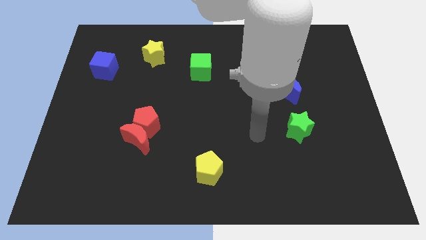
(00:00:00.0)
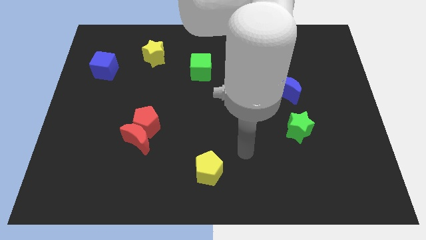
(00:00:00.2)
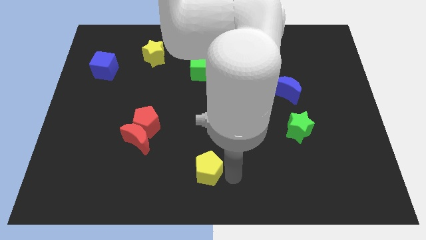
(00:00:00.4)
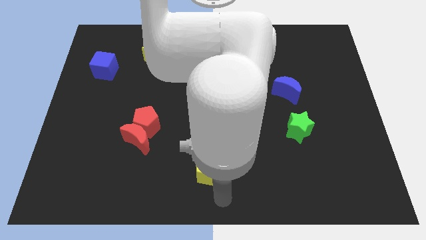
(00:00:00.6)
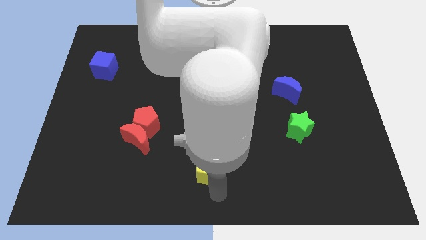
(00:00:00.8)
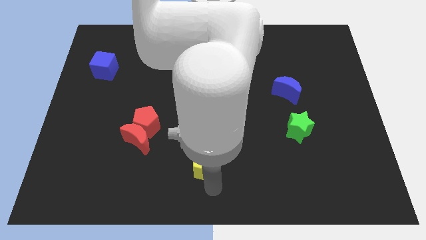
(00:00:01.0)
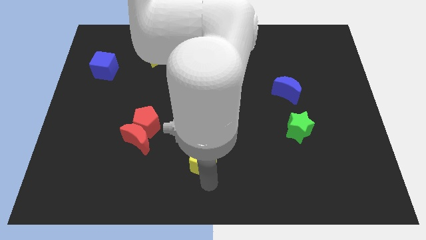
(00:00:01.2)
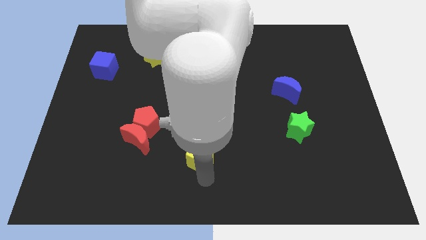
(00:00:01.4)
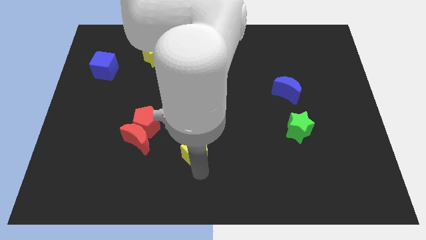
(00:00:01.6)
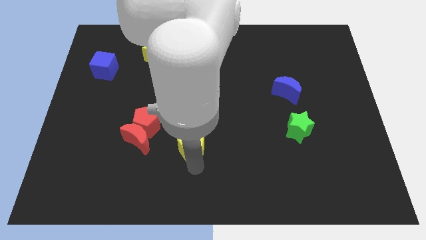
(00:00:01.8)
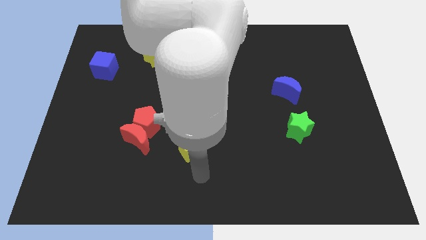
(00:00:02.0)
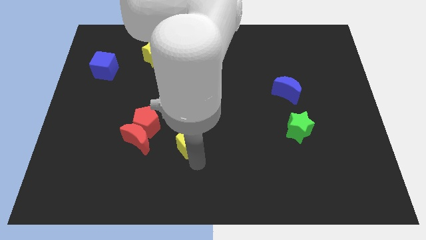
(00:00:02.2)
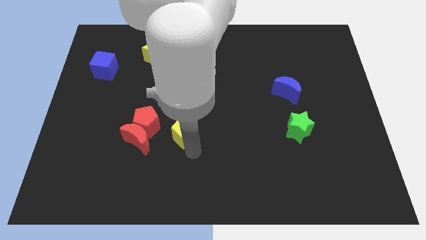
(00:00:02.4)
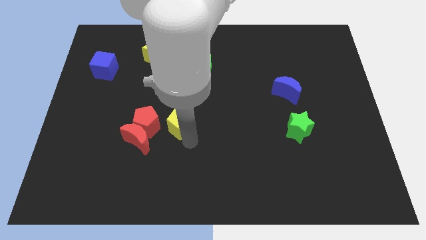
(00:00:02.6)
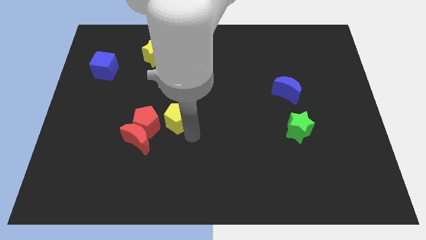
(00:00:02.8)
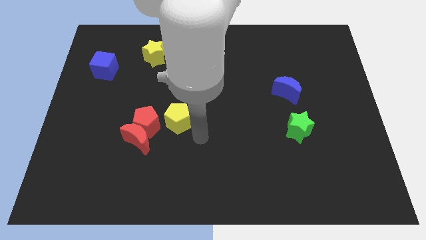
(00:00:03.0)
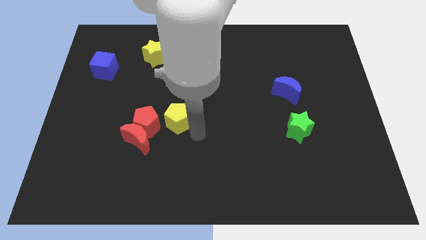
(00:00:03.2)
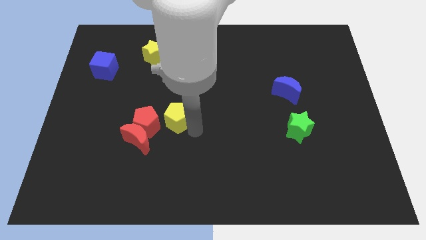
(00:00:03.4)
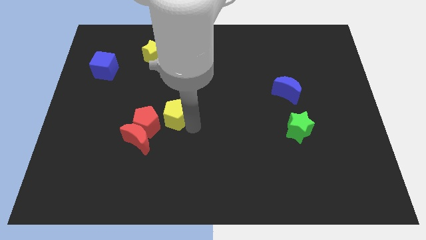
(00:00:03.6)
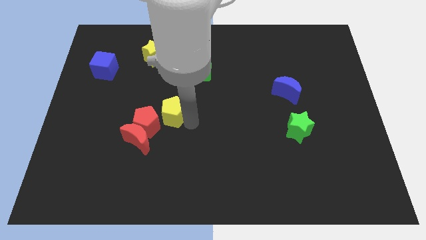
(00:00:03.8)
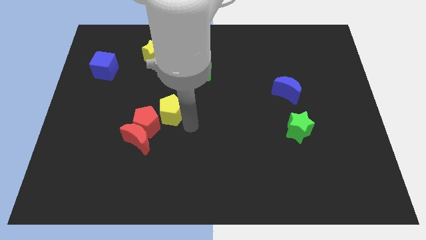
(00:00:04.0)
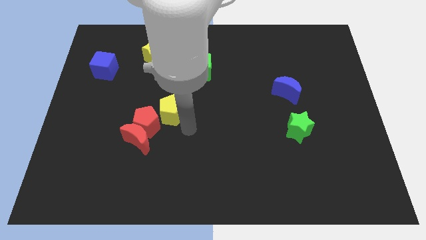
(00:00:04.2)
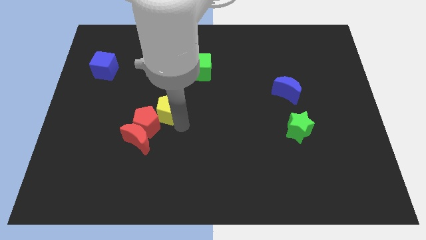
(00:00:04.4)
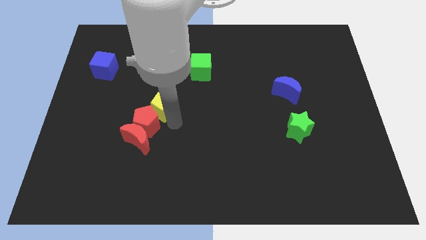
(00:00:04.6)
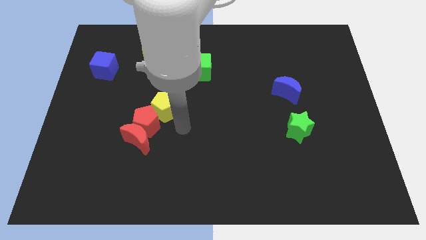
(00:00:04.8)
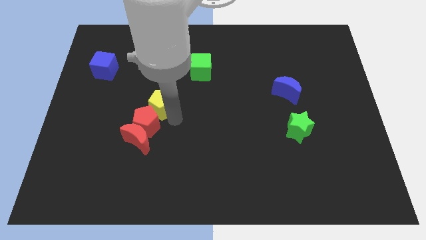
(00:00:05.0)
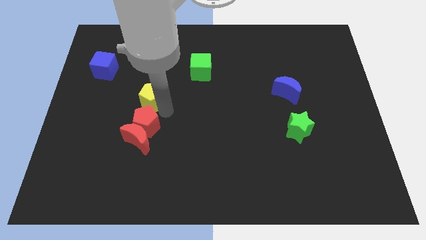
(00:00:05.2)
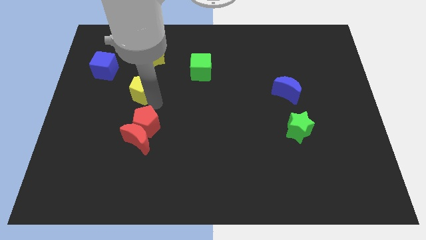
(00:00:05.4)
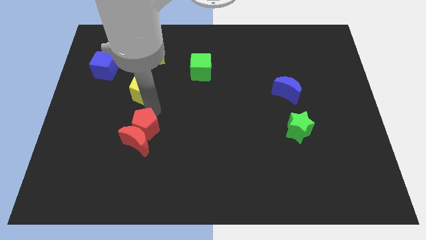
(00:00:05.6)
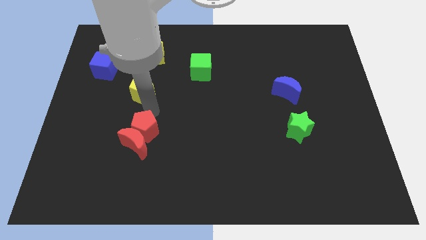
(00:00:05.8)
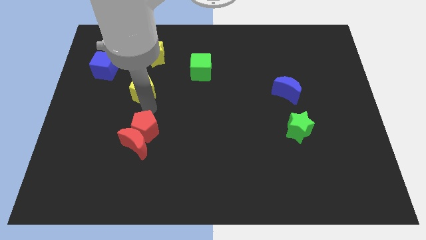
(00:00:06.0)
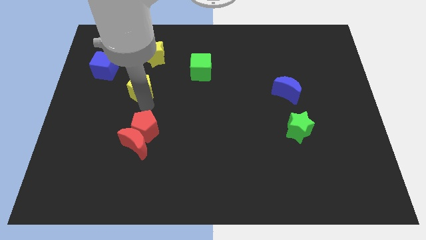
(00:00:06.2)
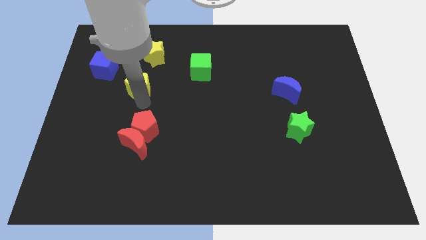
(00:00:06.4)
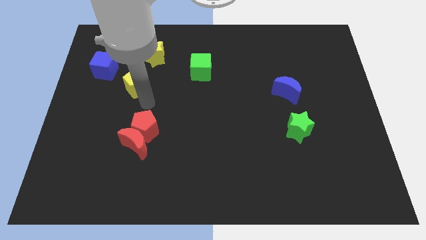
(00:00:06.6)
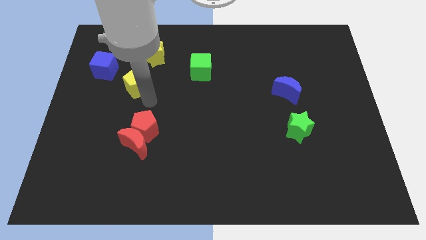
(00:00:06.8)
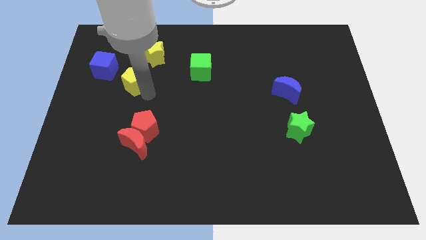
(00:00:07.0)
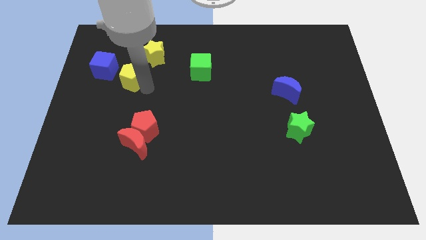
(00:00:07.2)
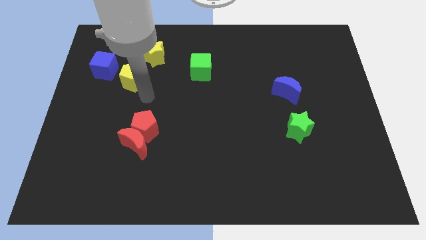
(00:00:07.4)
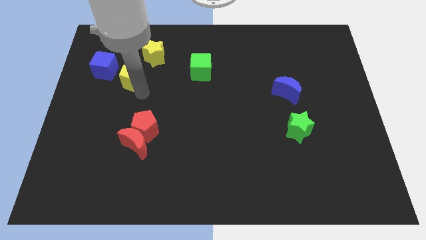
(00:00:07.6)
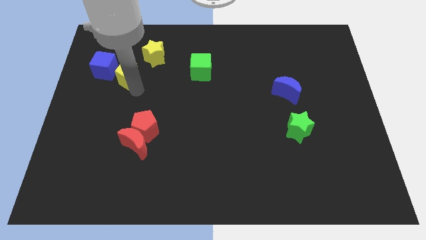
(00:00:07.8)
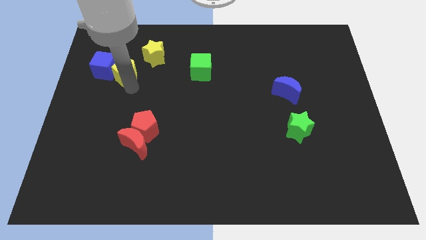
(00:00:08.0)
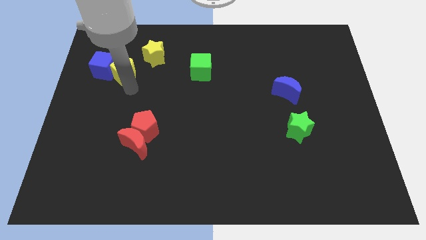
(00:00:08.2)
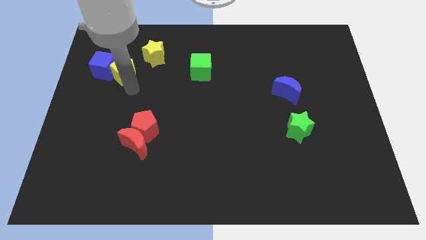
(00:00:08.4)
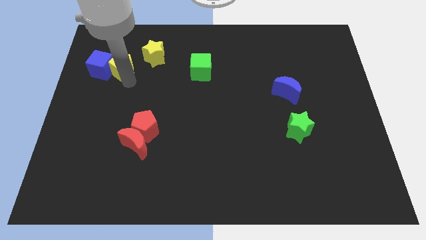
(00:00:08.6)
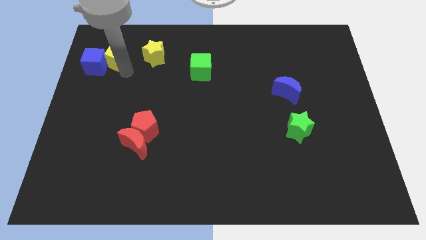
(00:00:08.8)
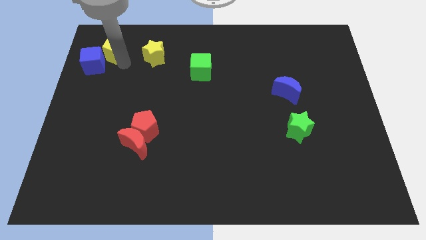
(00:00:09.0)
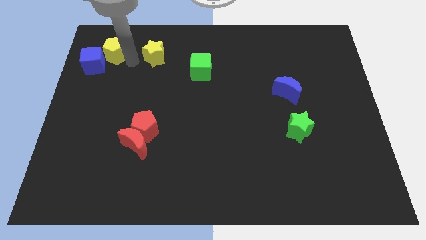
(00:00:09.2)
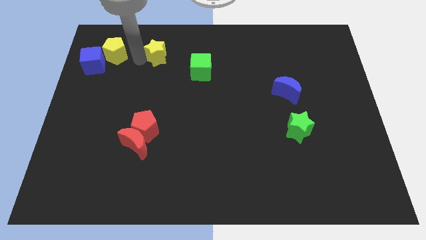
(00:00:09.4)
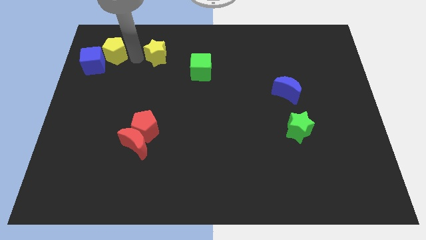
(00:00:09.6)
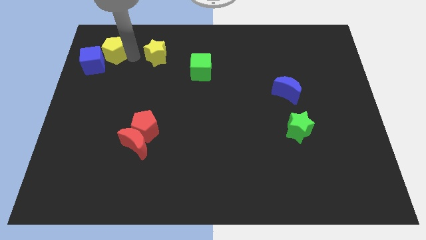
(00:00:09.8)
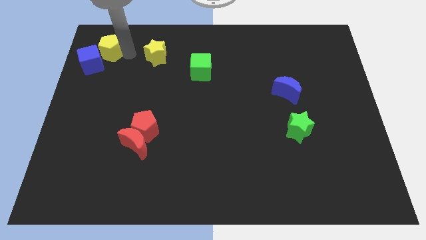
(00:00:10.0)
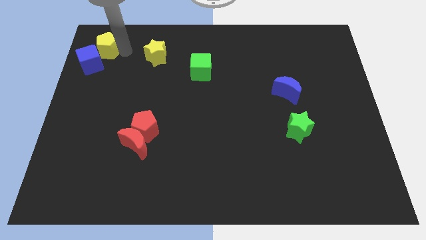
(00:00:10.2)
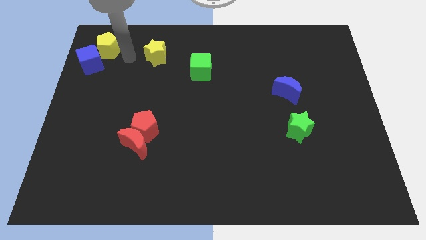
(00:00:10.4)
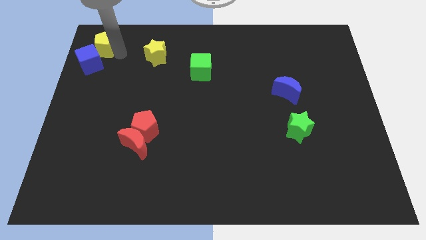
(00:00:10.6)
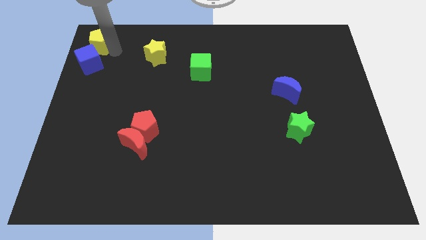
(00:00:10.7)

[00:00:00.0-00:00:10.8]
move the yellow pentagon to the top left

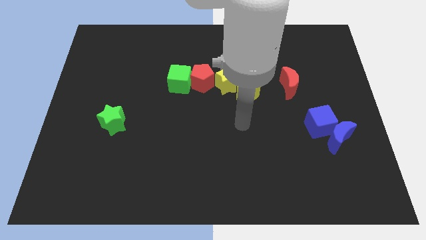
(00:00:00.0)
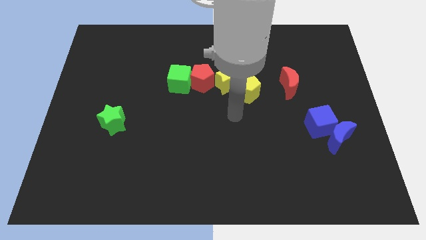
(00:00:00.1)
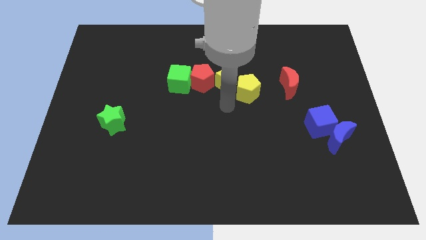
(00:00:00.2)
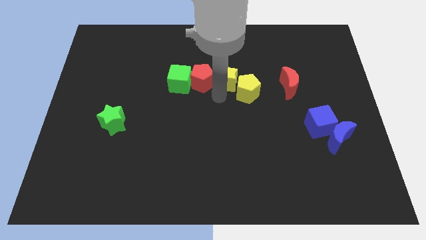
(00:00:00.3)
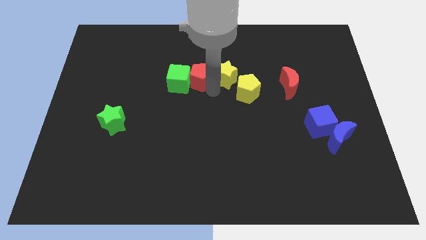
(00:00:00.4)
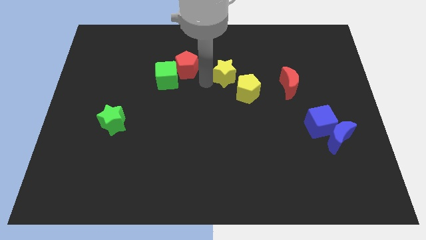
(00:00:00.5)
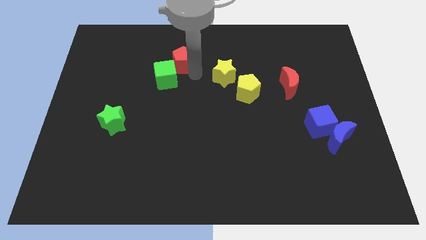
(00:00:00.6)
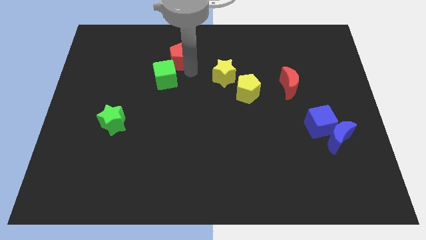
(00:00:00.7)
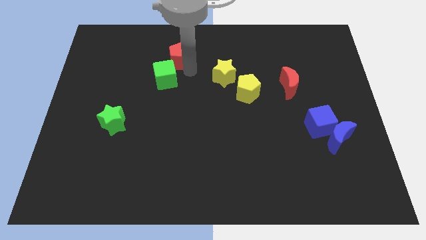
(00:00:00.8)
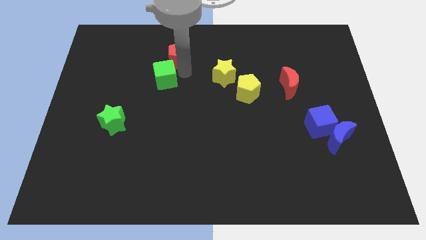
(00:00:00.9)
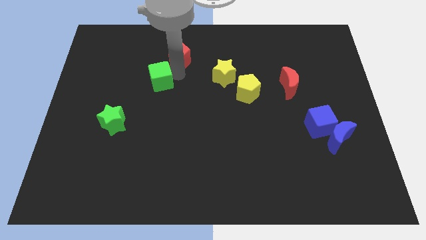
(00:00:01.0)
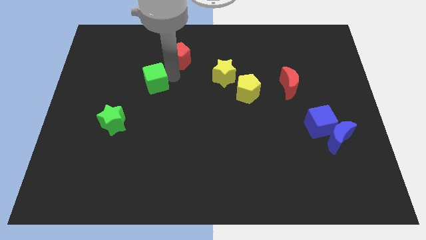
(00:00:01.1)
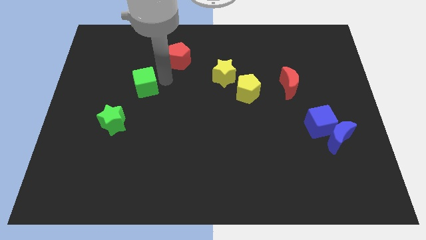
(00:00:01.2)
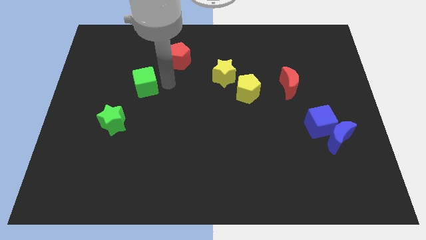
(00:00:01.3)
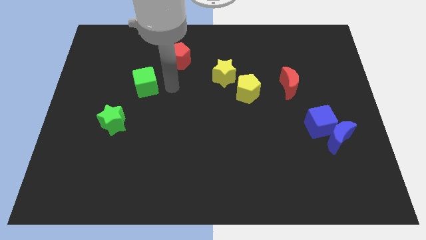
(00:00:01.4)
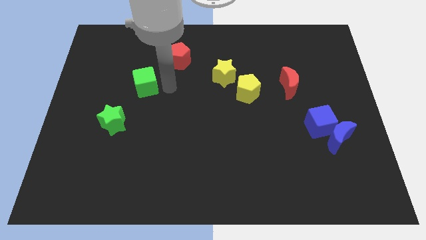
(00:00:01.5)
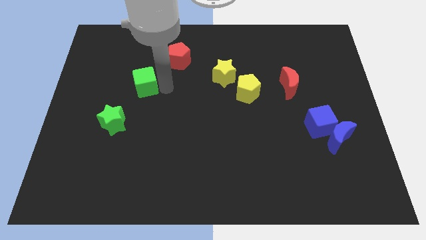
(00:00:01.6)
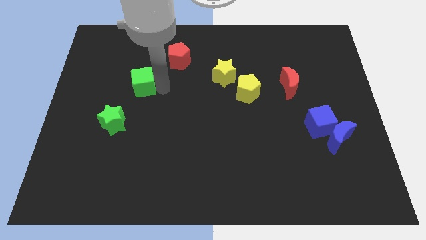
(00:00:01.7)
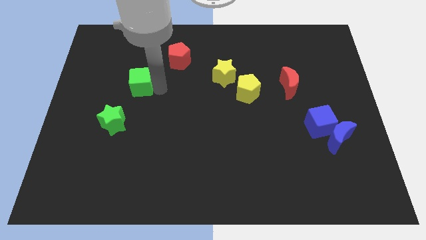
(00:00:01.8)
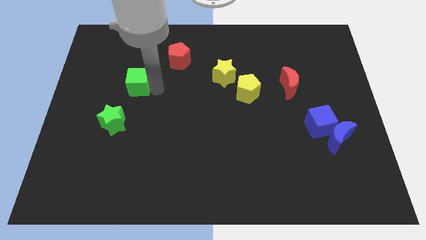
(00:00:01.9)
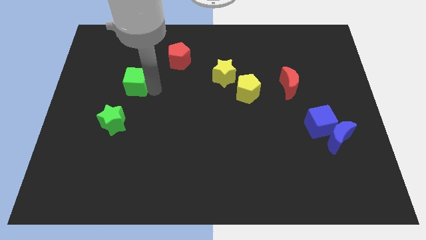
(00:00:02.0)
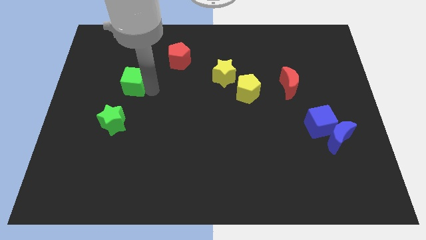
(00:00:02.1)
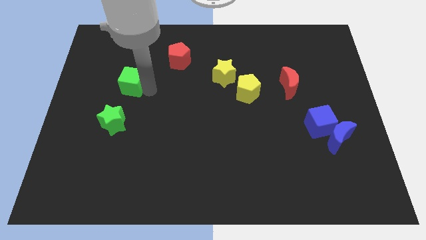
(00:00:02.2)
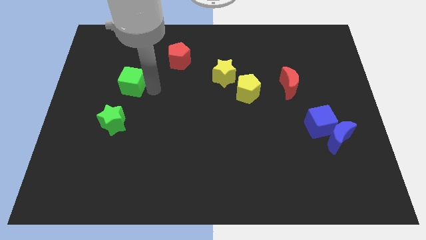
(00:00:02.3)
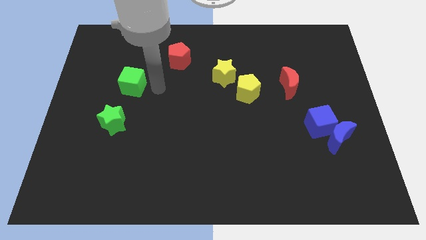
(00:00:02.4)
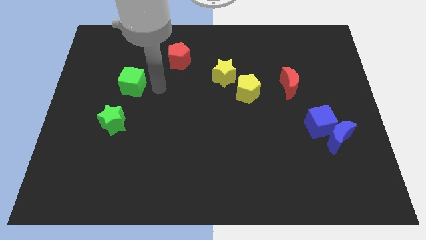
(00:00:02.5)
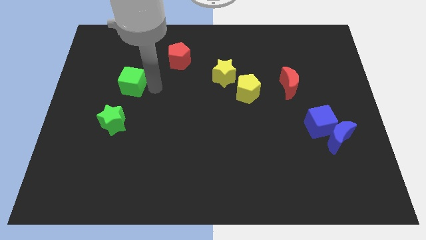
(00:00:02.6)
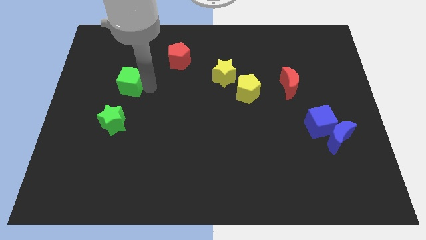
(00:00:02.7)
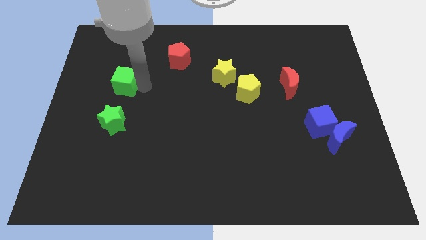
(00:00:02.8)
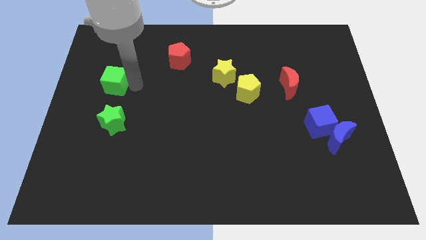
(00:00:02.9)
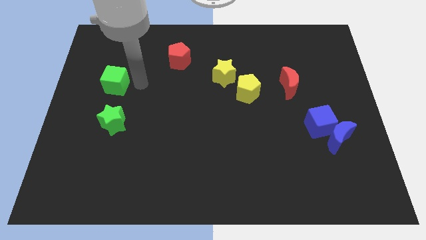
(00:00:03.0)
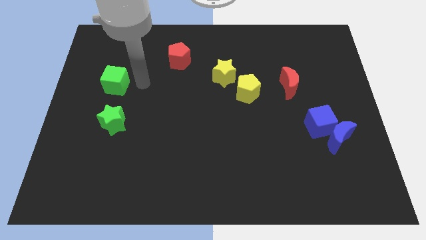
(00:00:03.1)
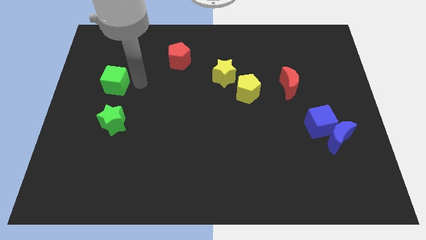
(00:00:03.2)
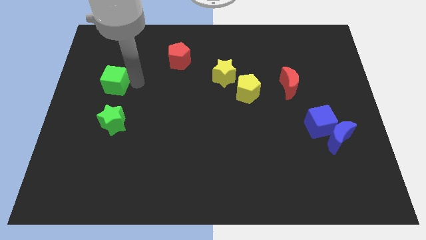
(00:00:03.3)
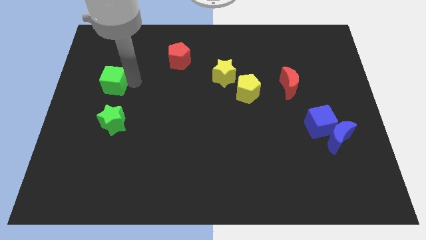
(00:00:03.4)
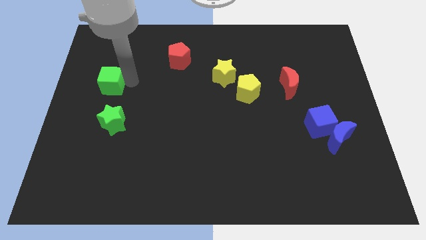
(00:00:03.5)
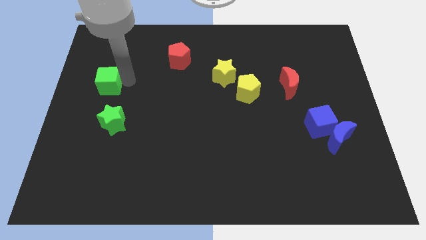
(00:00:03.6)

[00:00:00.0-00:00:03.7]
push the green cube to the left side
